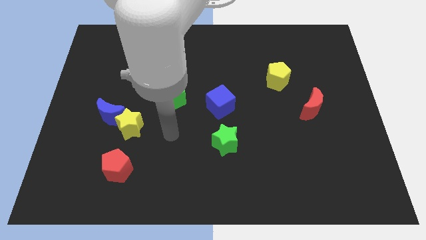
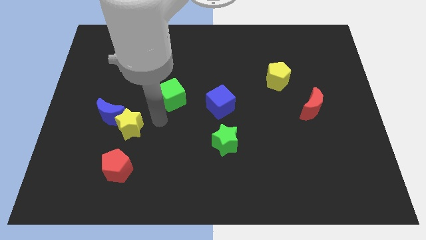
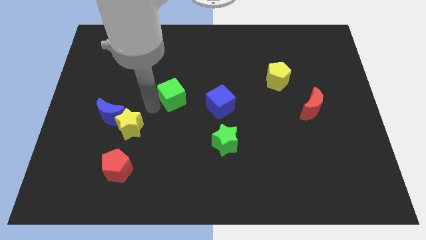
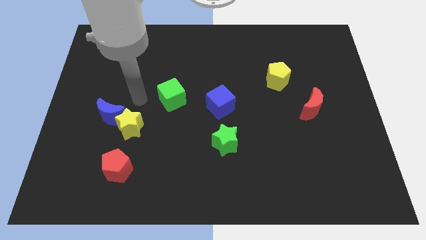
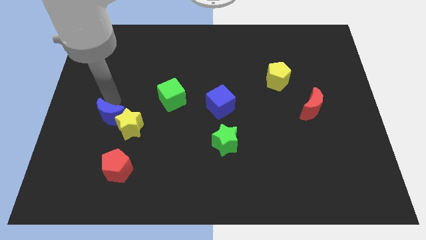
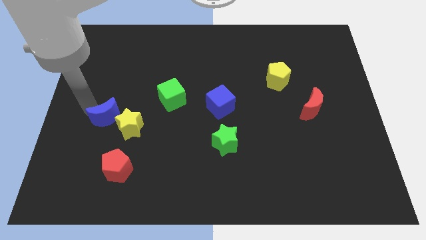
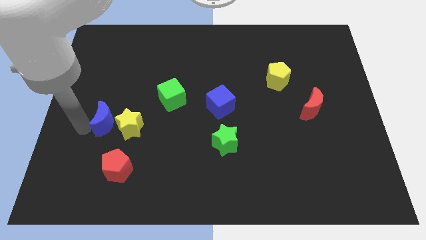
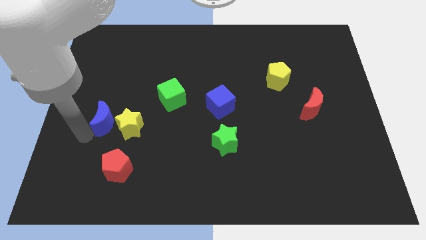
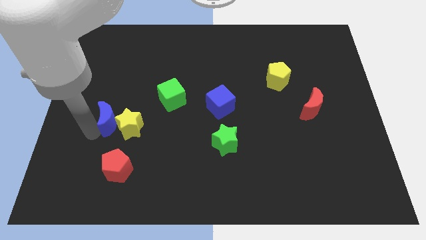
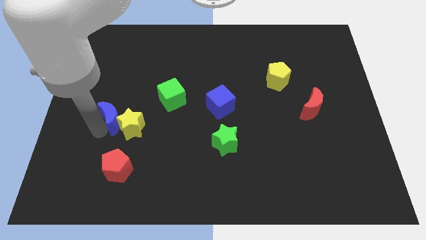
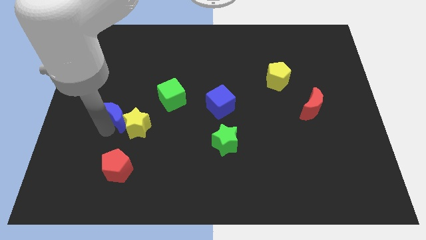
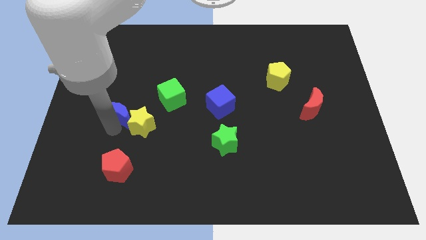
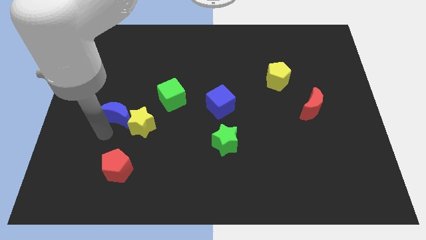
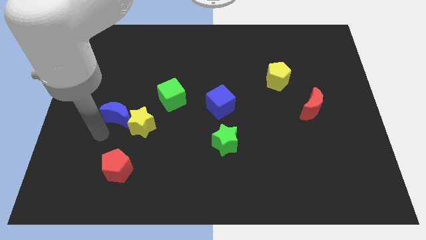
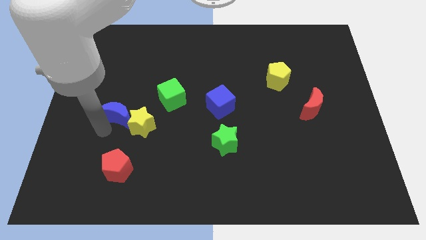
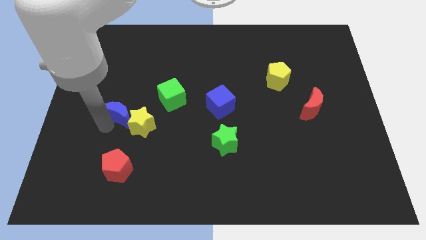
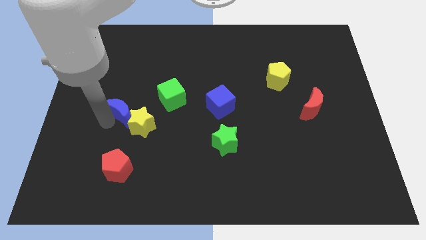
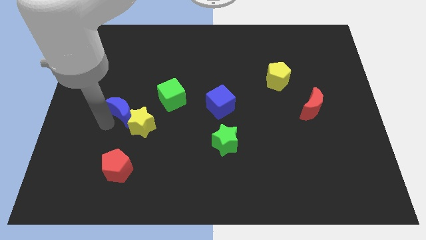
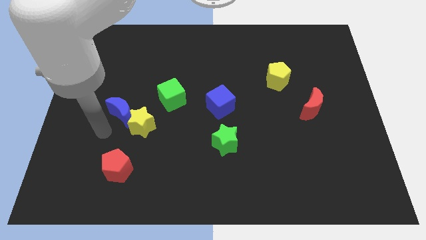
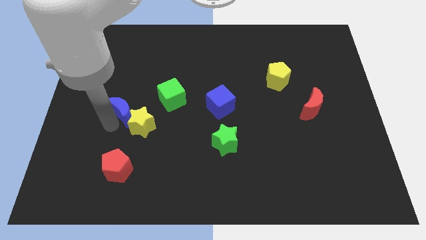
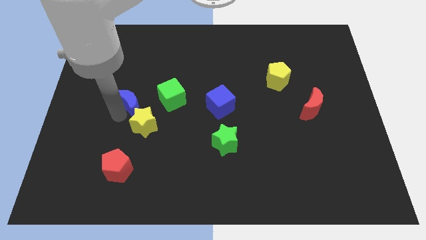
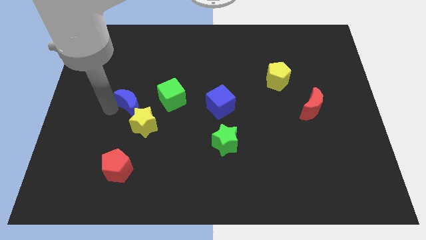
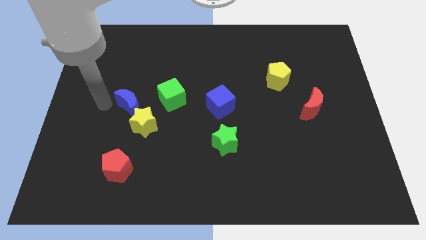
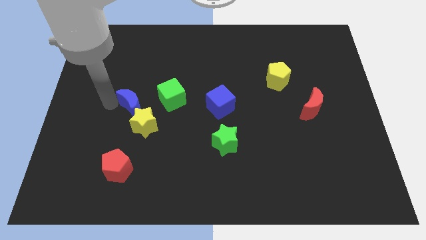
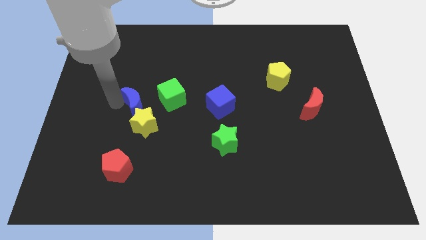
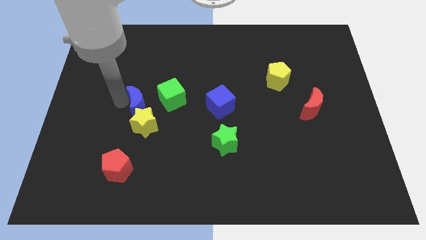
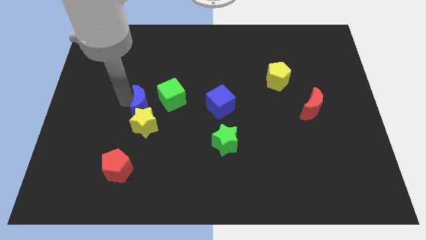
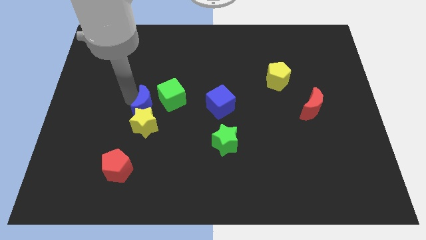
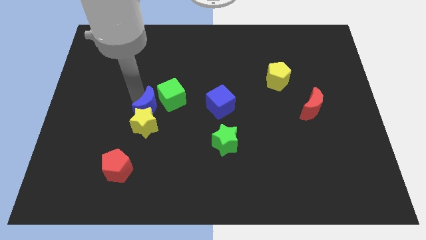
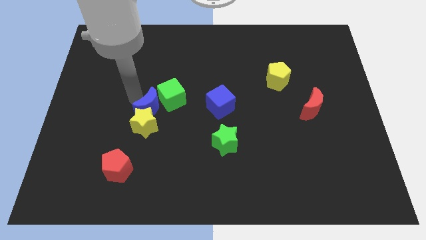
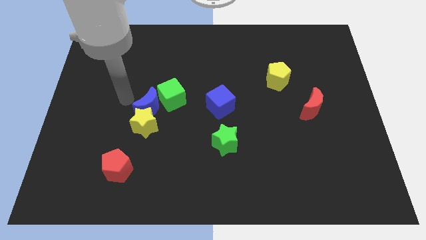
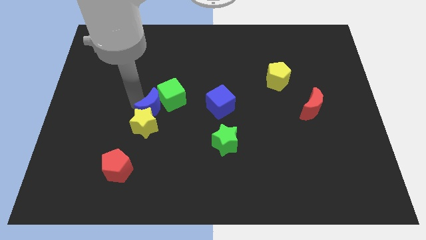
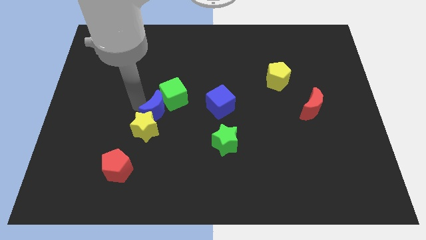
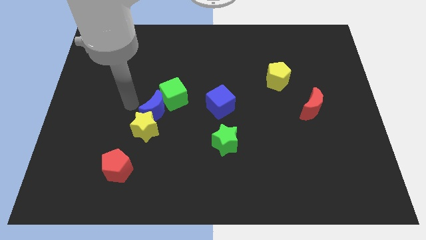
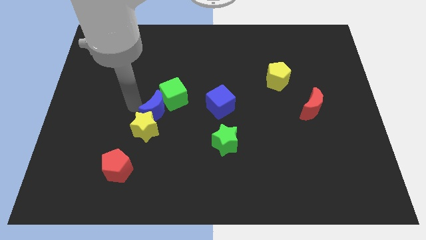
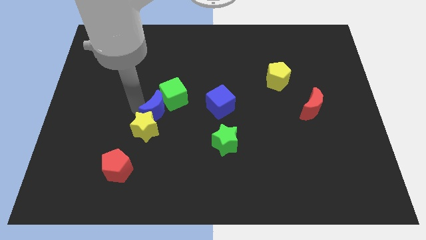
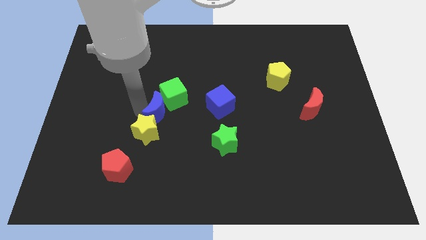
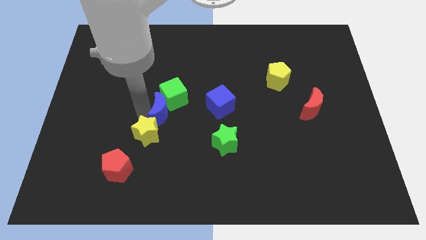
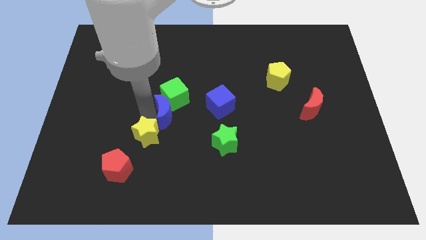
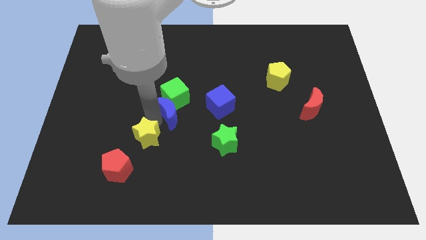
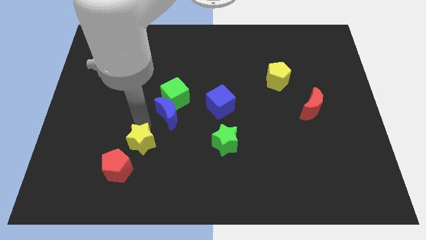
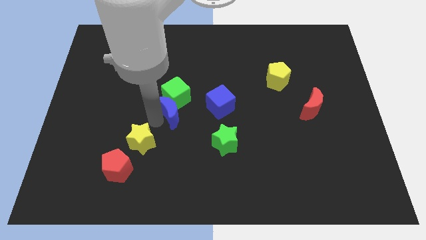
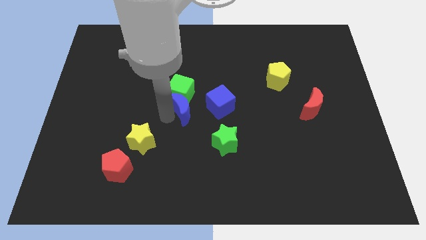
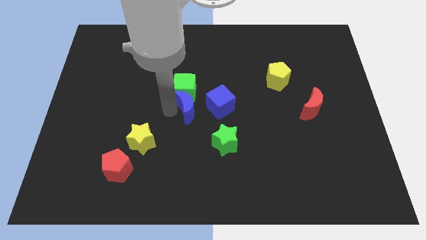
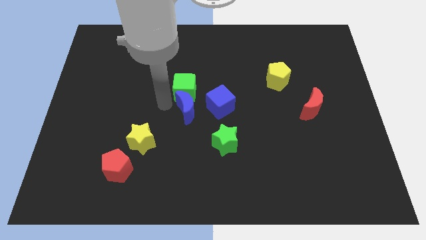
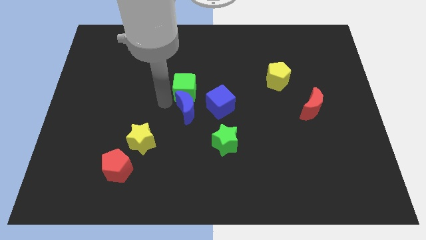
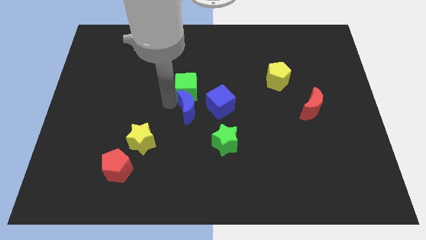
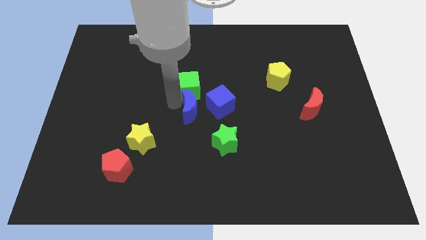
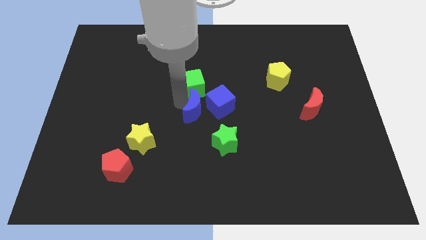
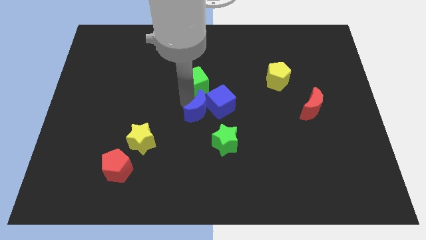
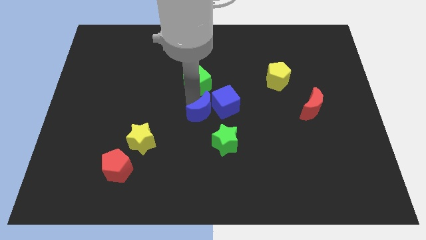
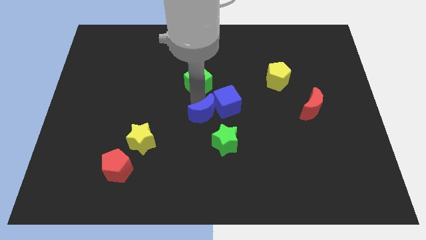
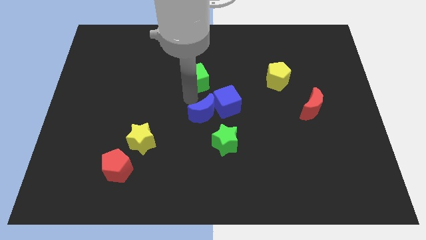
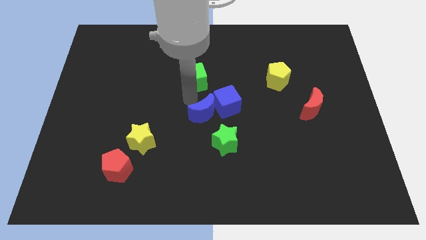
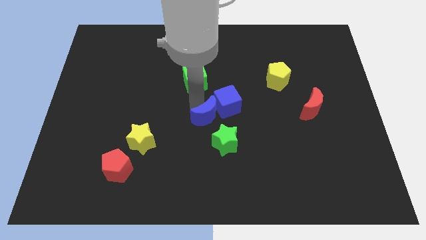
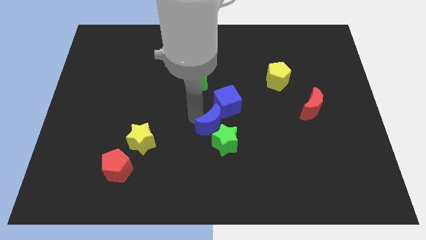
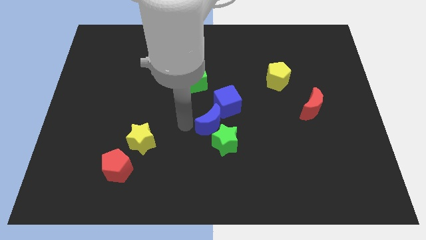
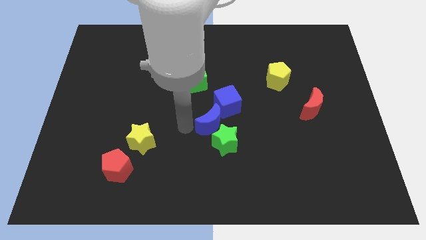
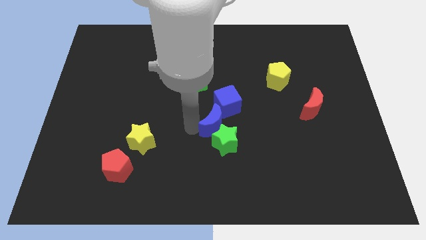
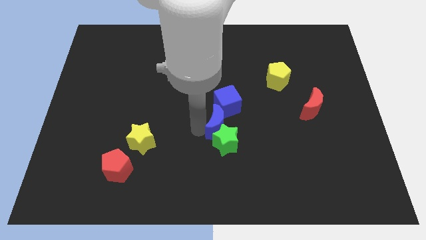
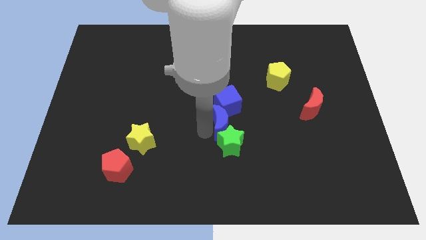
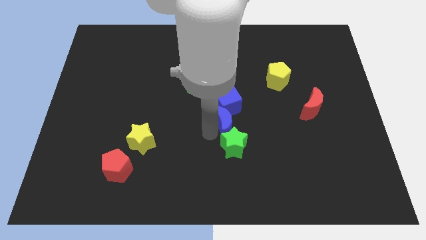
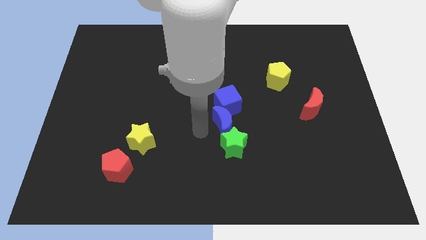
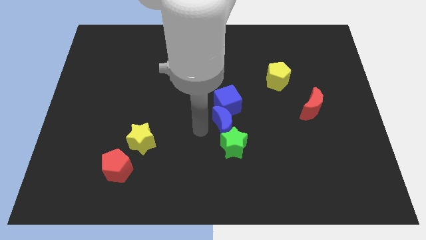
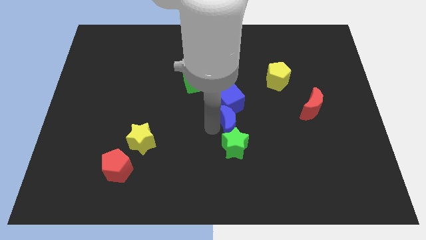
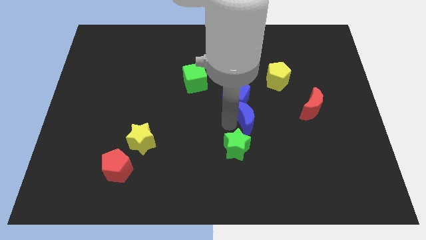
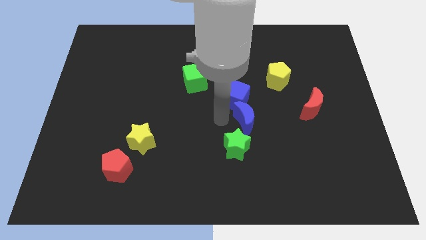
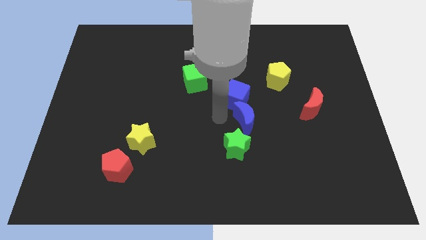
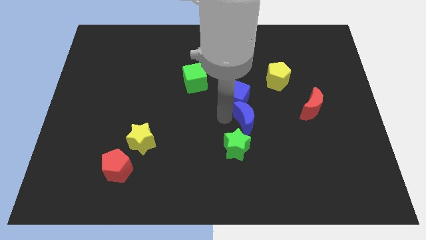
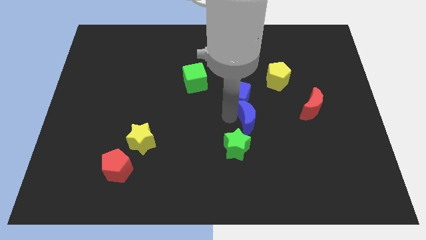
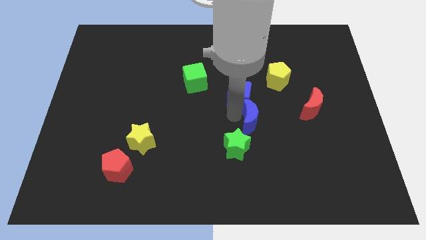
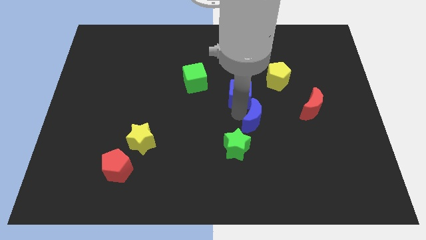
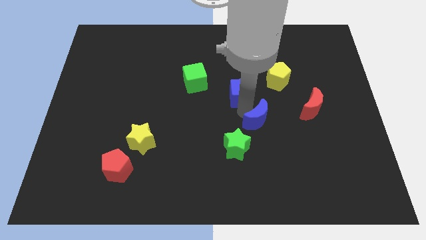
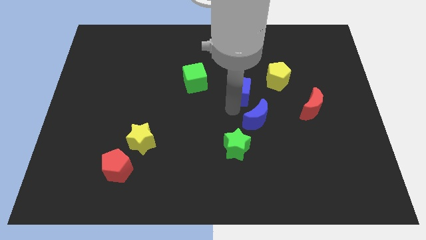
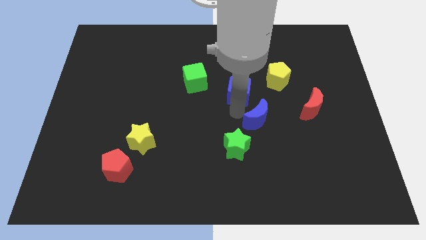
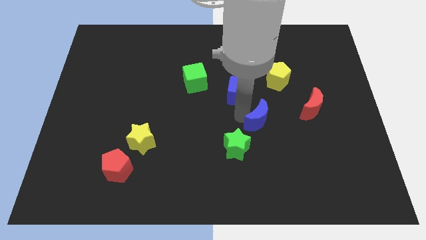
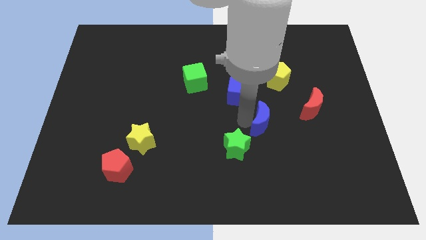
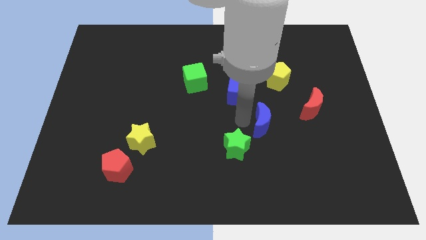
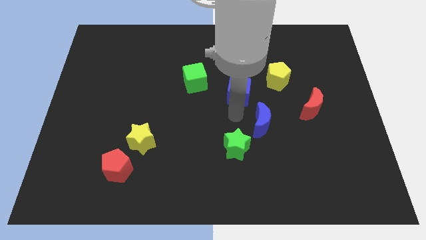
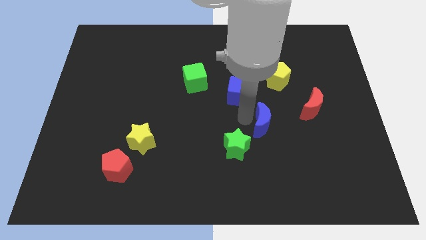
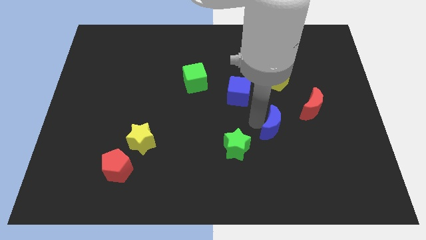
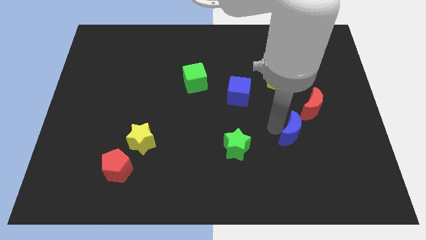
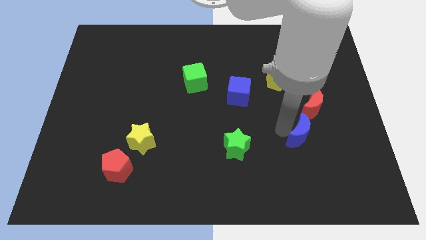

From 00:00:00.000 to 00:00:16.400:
push the blue moon below the red moon
